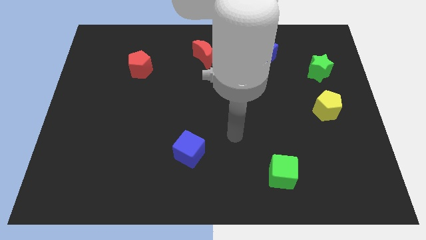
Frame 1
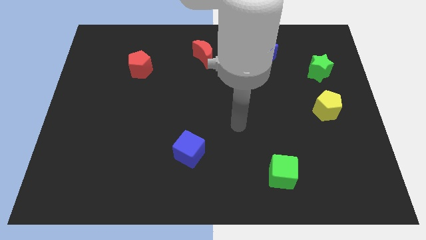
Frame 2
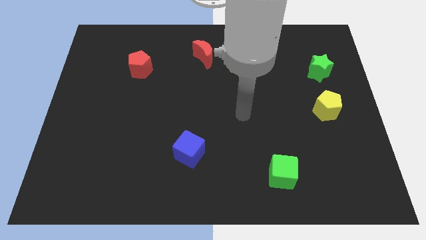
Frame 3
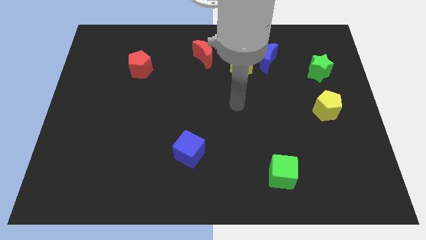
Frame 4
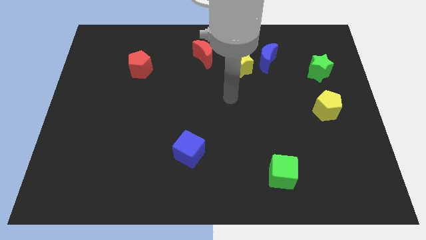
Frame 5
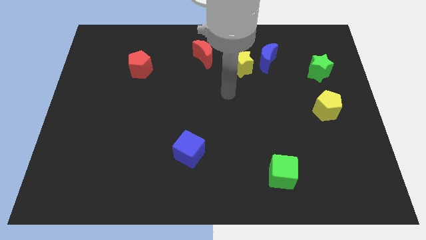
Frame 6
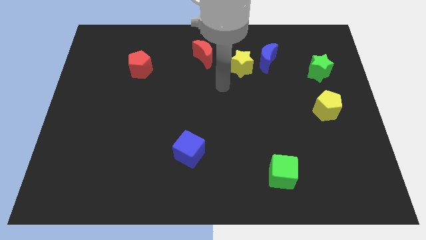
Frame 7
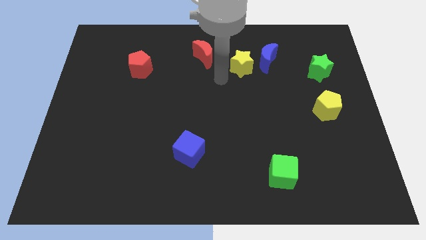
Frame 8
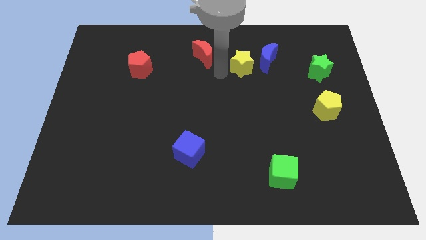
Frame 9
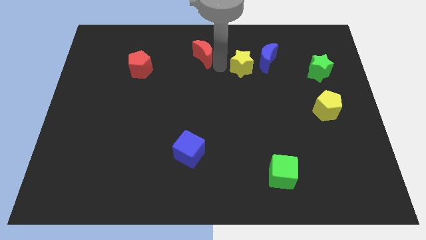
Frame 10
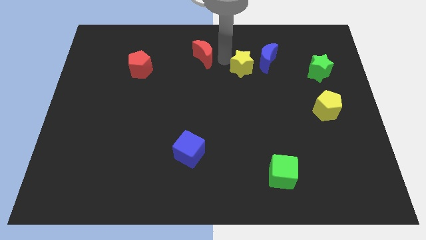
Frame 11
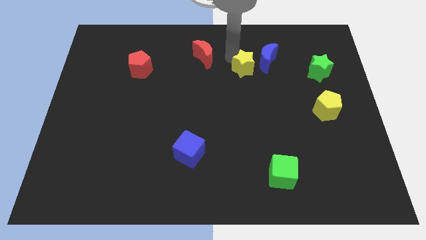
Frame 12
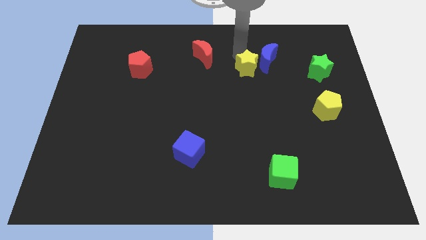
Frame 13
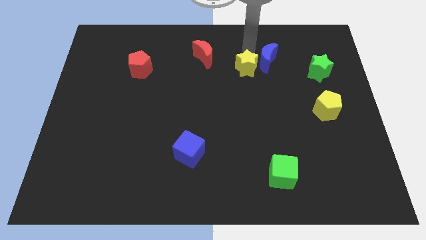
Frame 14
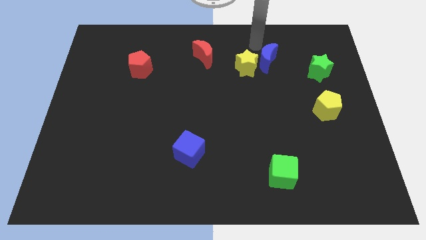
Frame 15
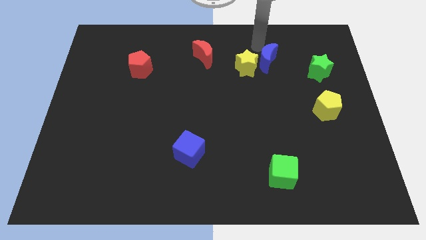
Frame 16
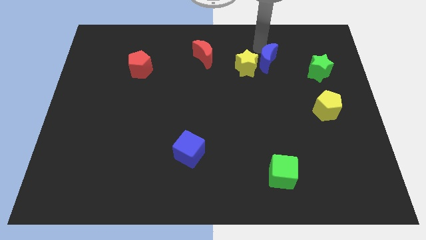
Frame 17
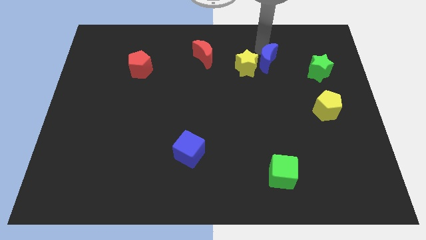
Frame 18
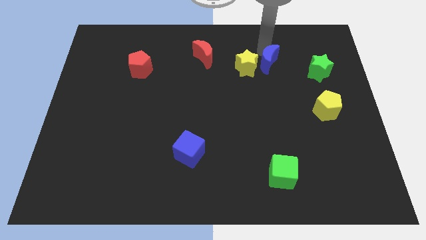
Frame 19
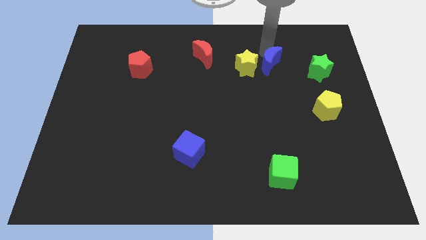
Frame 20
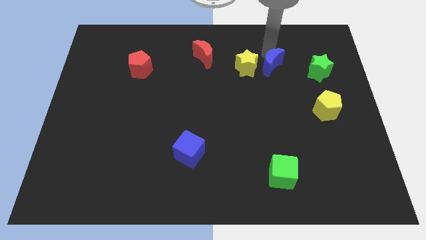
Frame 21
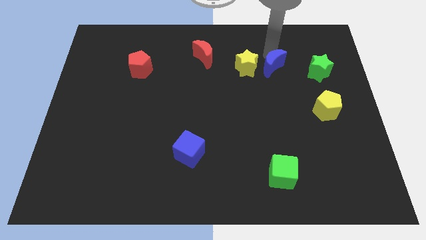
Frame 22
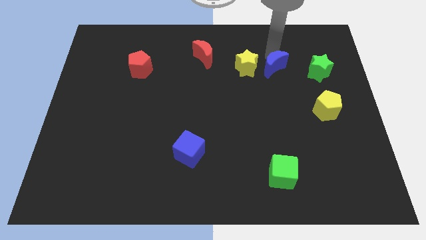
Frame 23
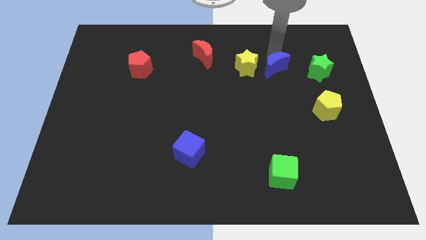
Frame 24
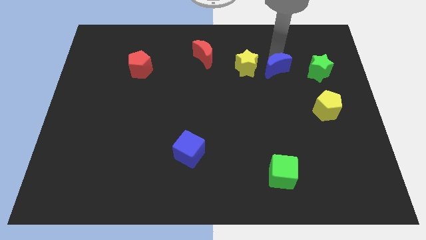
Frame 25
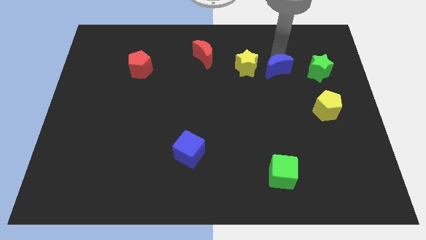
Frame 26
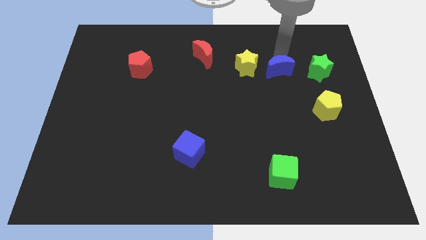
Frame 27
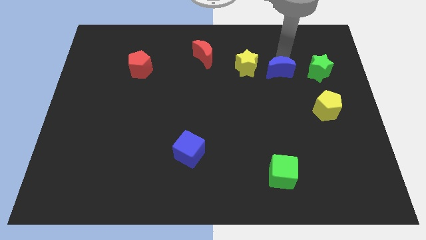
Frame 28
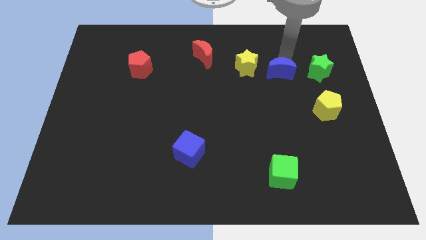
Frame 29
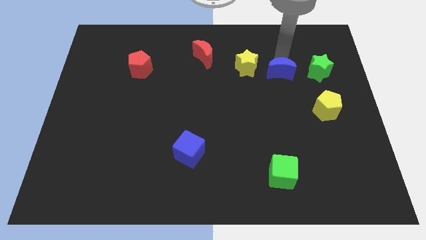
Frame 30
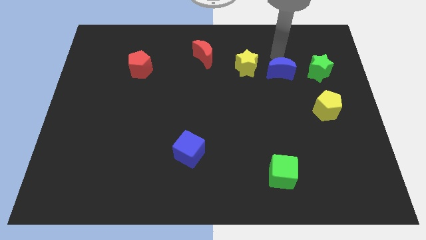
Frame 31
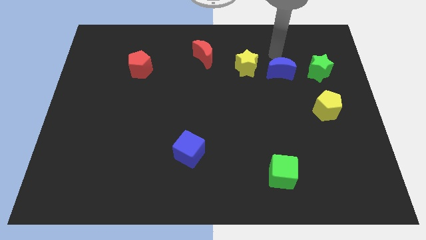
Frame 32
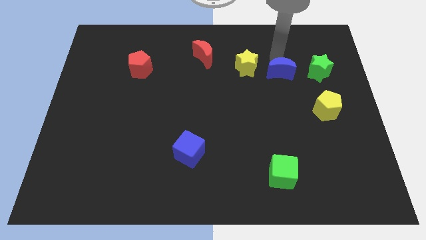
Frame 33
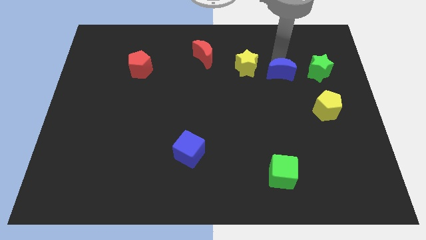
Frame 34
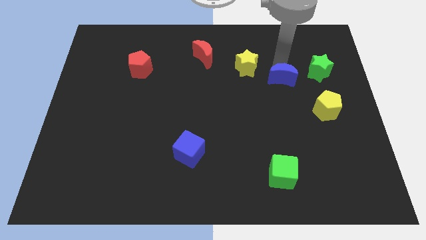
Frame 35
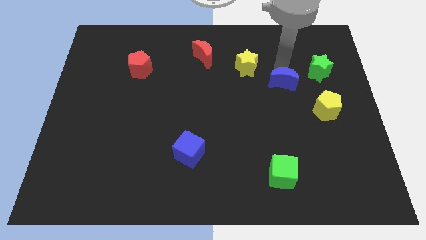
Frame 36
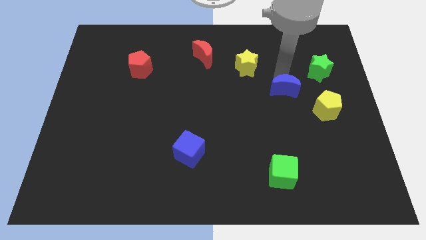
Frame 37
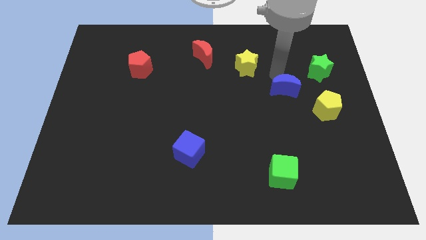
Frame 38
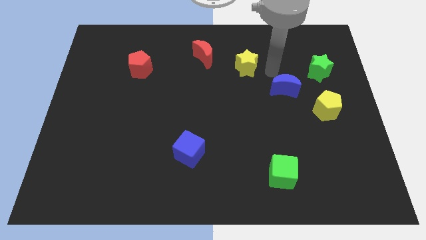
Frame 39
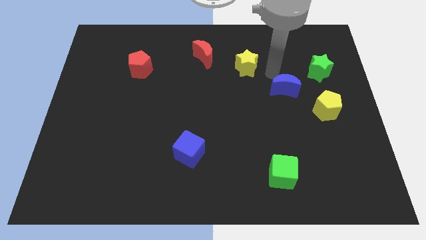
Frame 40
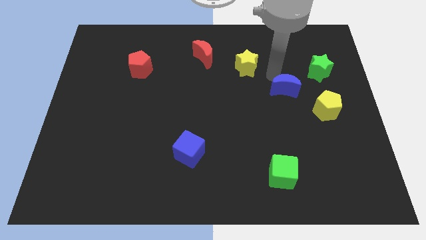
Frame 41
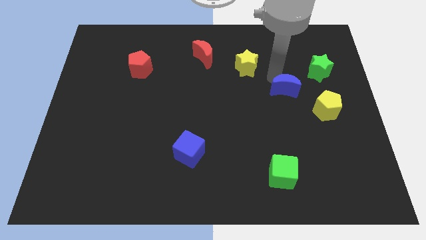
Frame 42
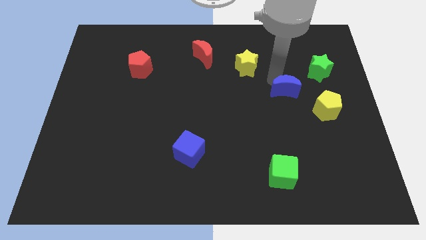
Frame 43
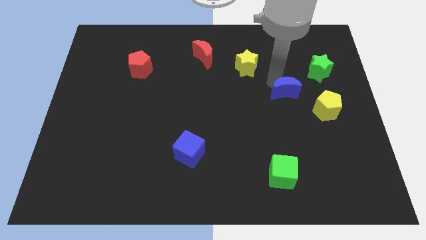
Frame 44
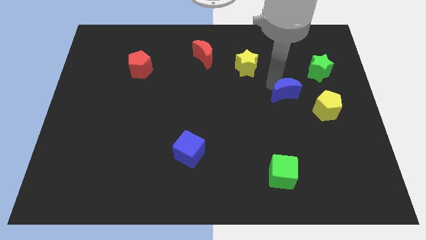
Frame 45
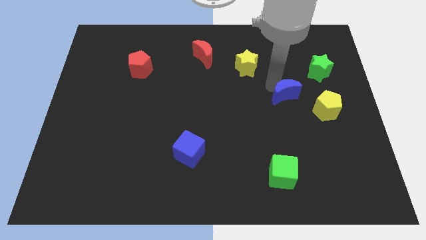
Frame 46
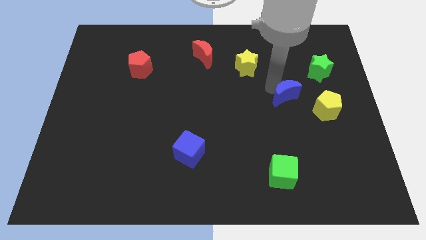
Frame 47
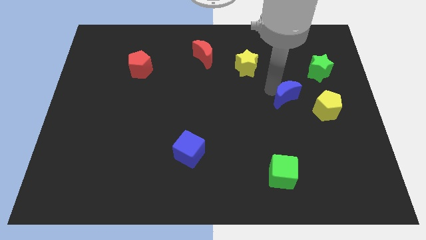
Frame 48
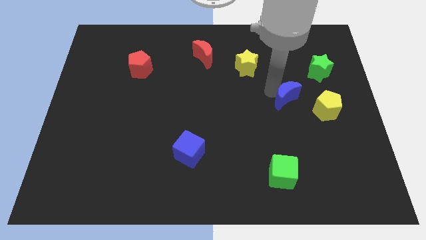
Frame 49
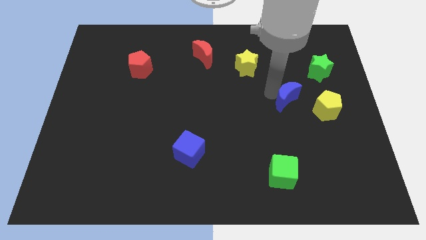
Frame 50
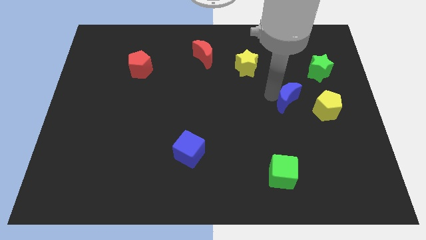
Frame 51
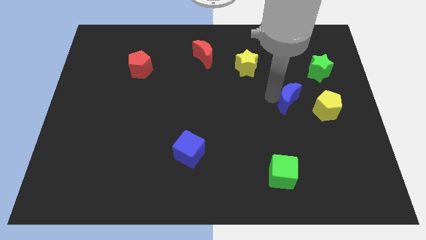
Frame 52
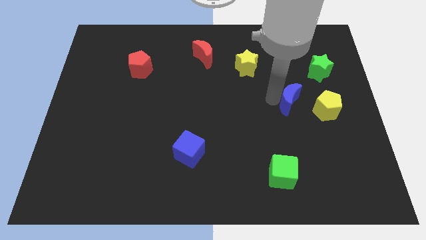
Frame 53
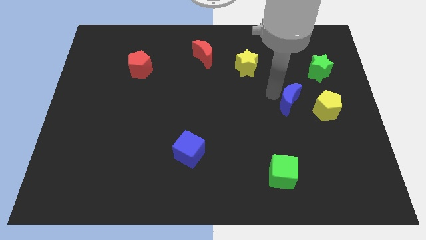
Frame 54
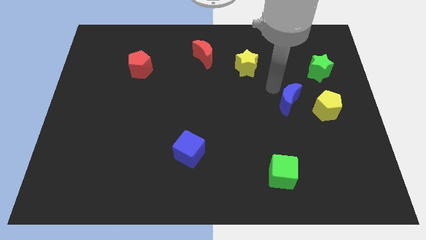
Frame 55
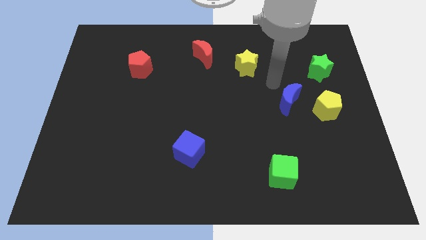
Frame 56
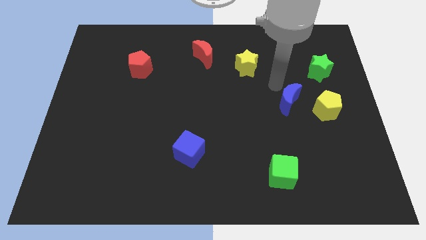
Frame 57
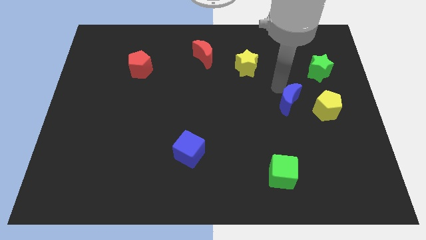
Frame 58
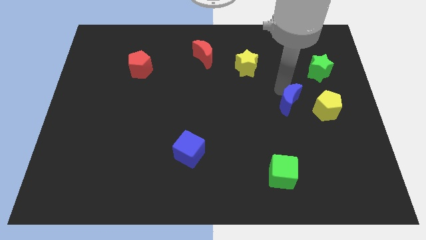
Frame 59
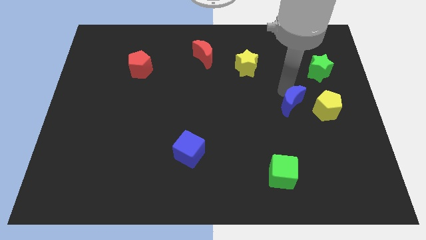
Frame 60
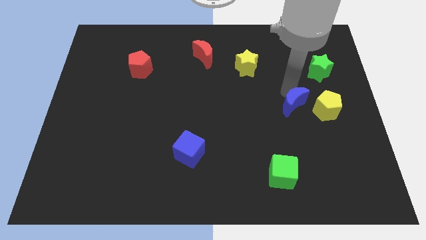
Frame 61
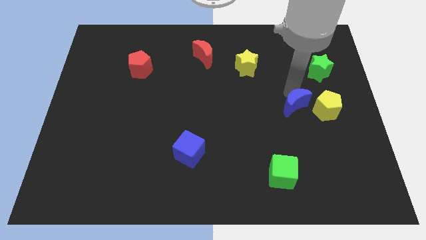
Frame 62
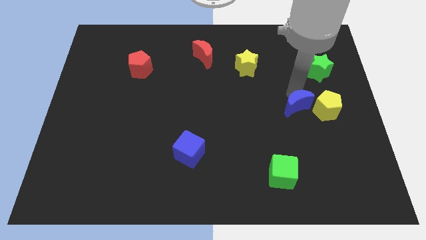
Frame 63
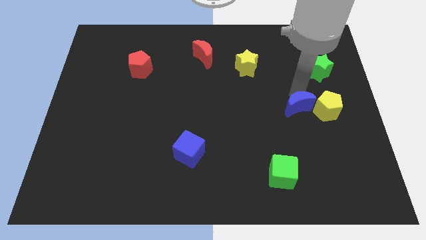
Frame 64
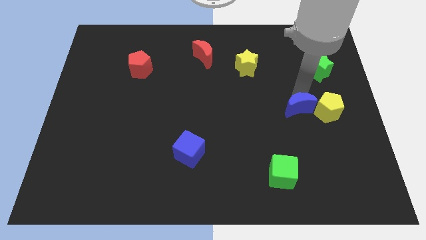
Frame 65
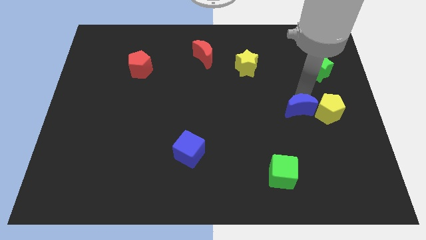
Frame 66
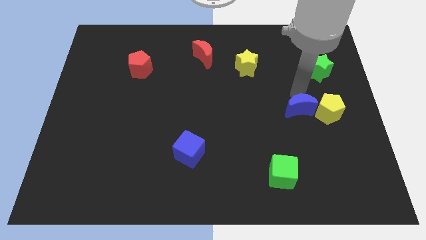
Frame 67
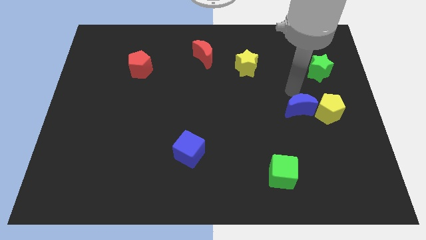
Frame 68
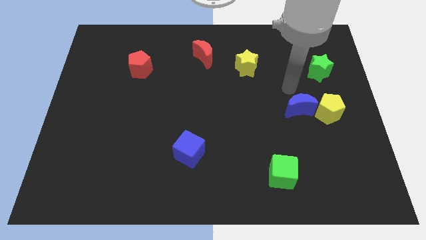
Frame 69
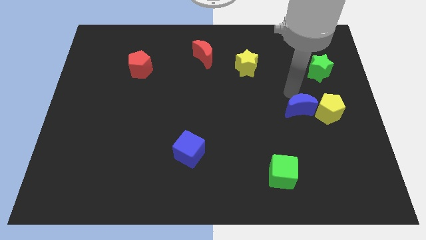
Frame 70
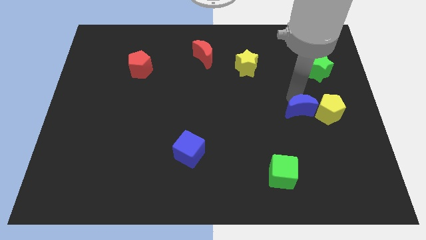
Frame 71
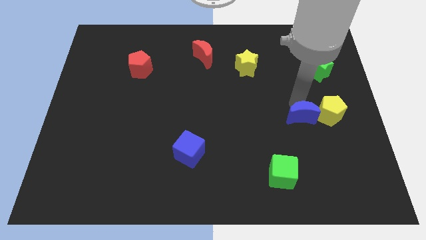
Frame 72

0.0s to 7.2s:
slide the blue moon to the bottom left side of the yellow pentagon
